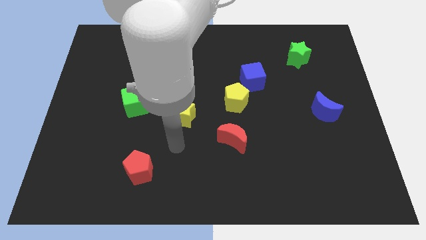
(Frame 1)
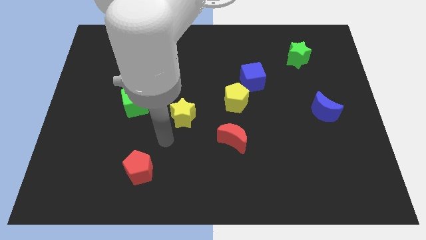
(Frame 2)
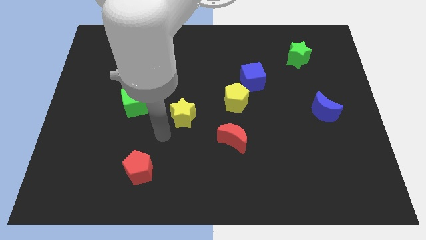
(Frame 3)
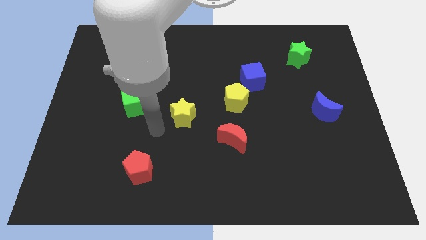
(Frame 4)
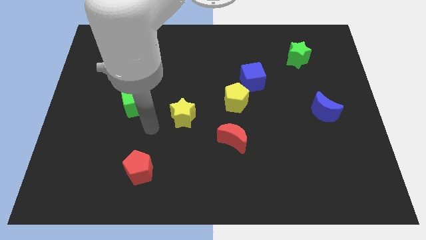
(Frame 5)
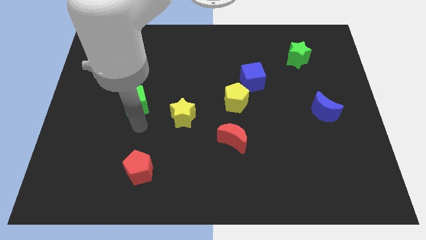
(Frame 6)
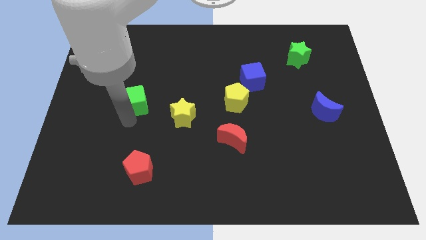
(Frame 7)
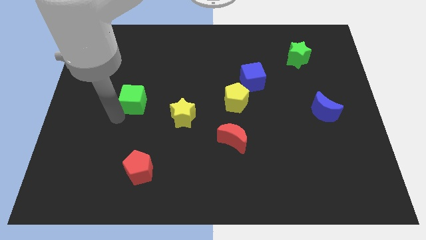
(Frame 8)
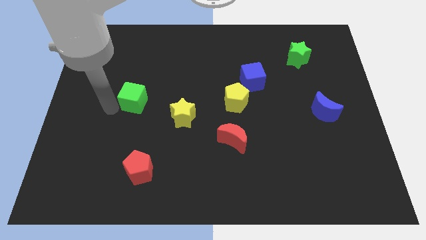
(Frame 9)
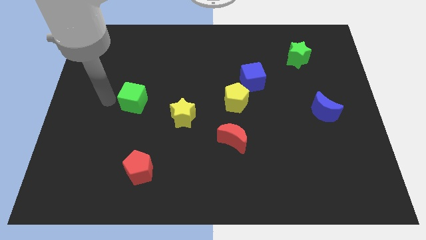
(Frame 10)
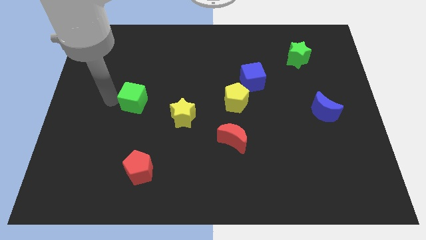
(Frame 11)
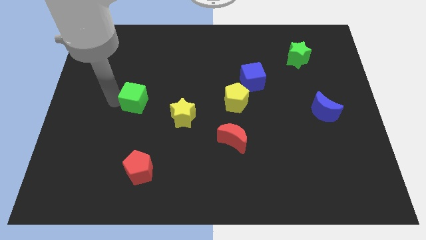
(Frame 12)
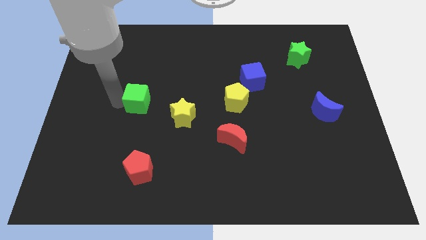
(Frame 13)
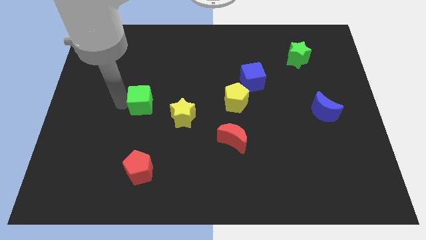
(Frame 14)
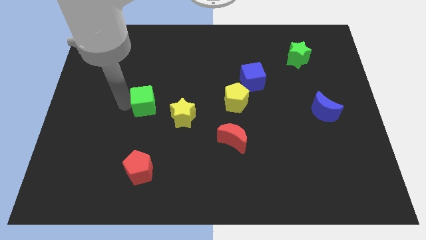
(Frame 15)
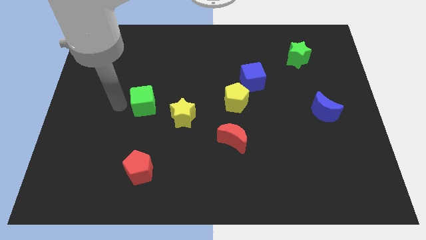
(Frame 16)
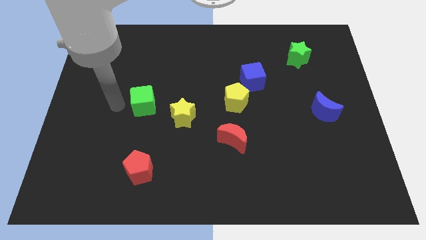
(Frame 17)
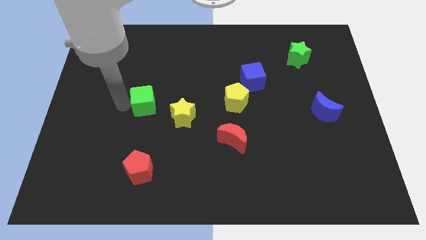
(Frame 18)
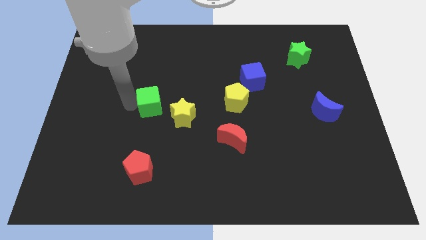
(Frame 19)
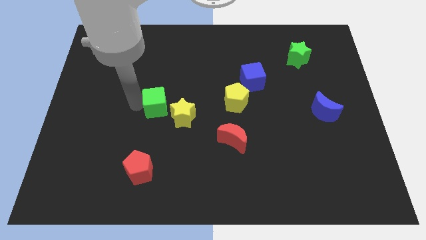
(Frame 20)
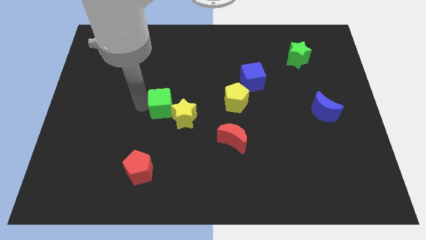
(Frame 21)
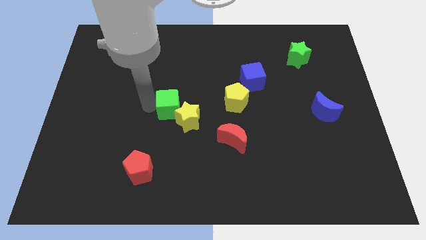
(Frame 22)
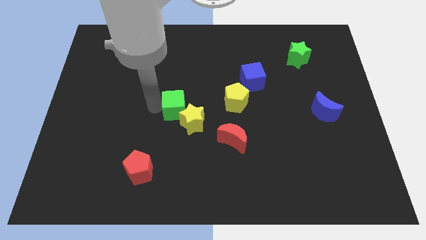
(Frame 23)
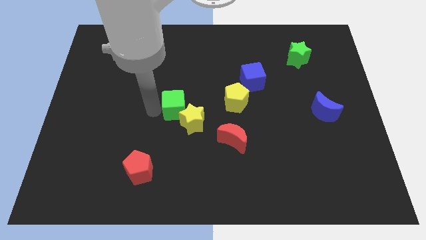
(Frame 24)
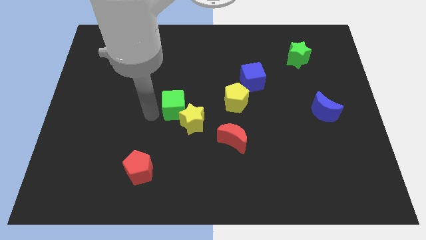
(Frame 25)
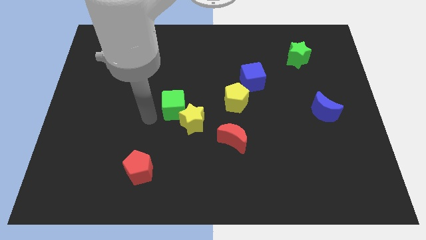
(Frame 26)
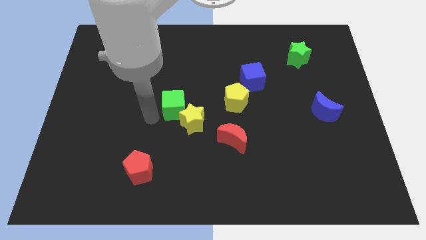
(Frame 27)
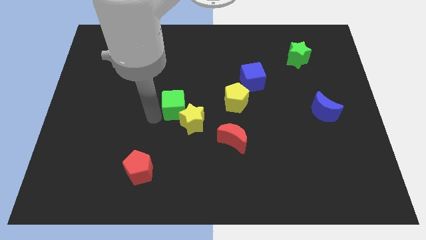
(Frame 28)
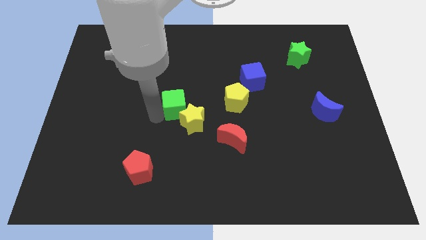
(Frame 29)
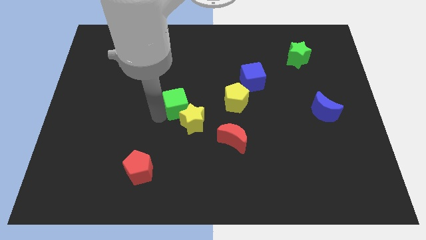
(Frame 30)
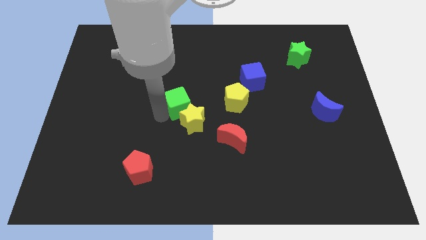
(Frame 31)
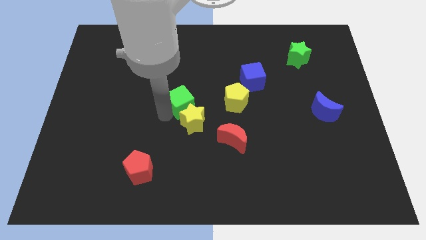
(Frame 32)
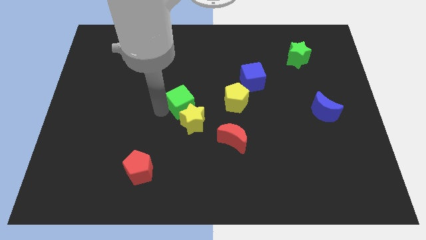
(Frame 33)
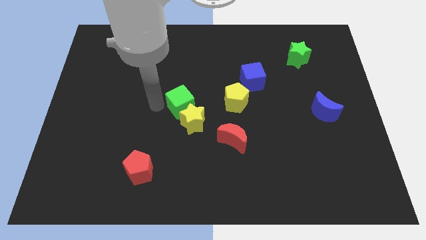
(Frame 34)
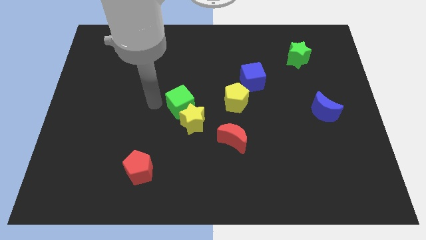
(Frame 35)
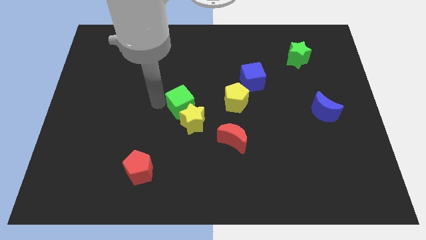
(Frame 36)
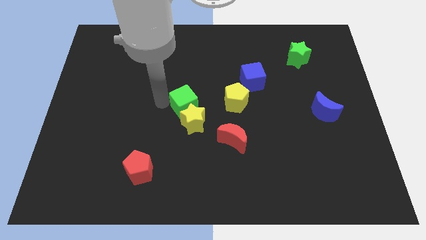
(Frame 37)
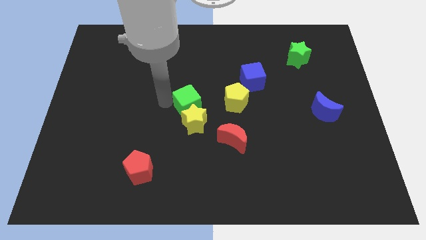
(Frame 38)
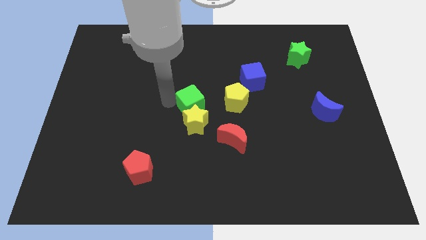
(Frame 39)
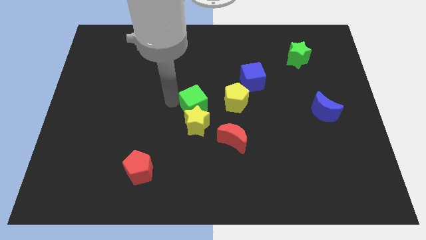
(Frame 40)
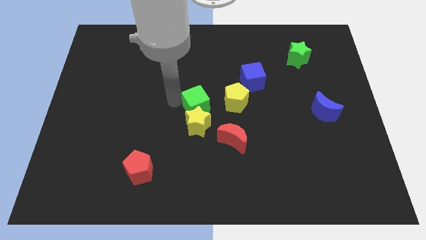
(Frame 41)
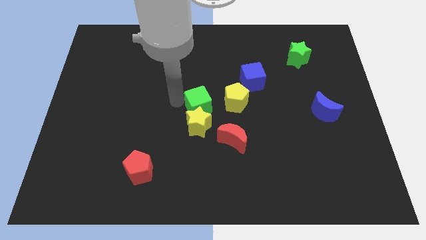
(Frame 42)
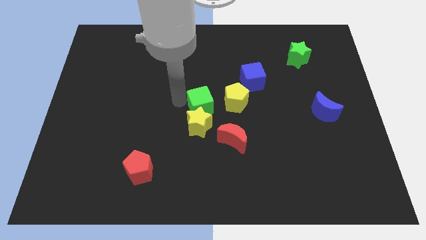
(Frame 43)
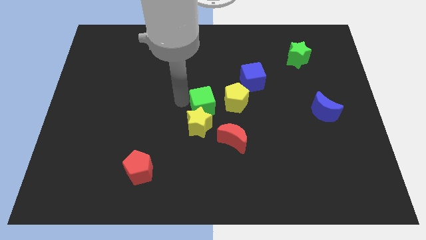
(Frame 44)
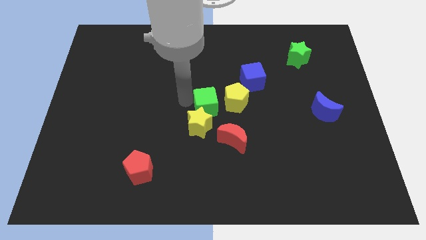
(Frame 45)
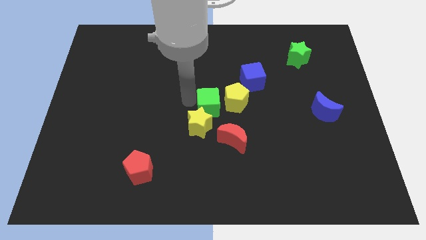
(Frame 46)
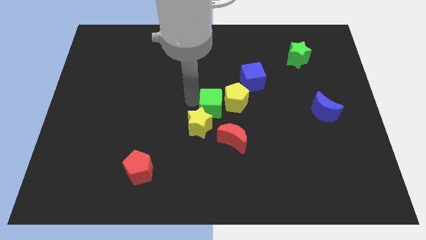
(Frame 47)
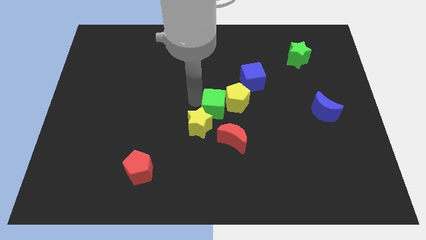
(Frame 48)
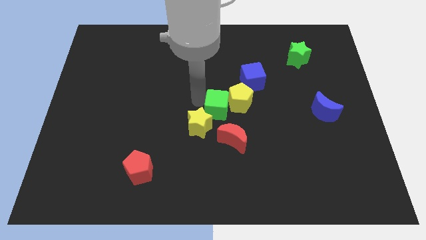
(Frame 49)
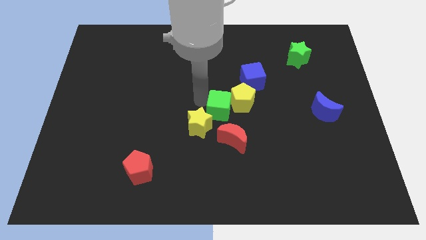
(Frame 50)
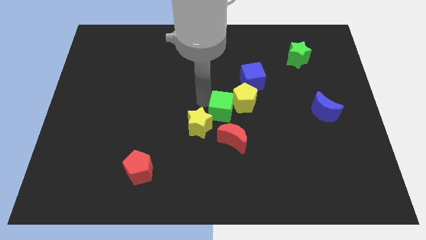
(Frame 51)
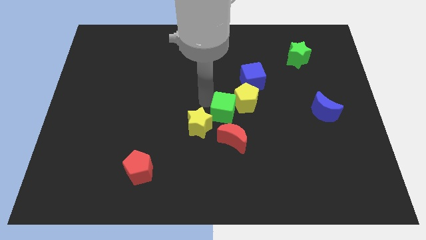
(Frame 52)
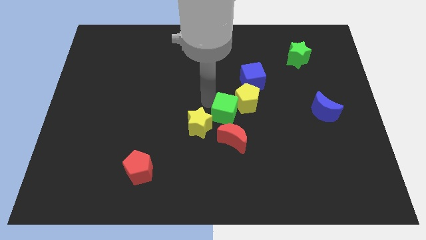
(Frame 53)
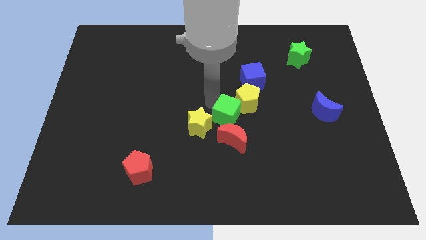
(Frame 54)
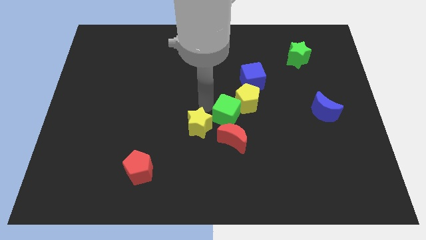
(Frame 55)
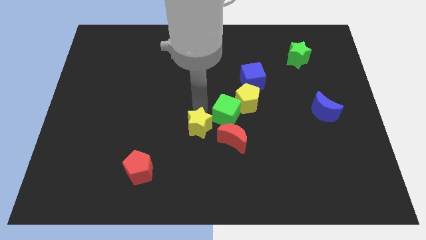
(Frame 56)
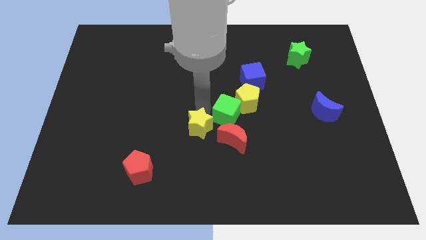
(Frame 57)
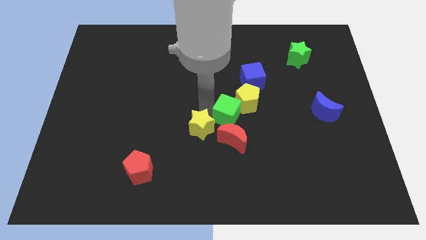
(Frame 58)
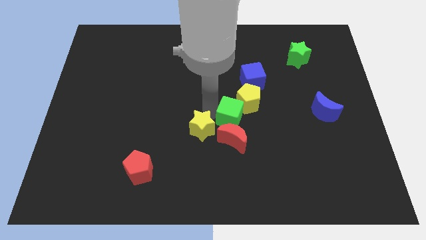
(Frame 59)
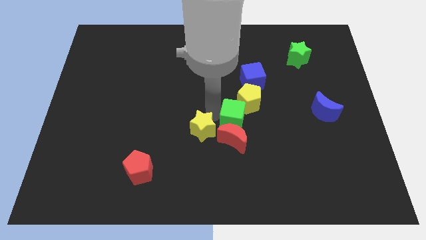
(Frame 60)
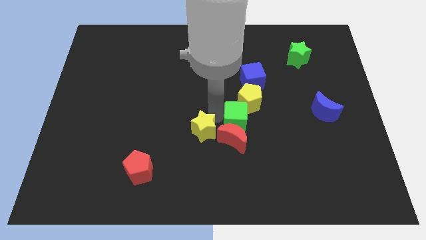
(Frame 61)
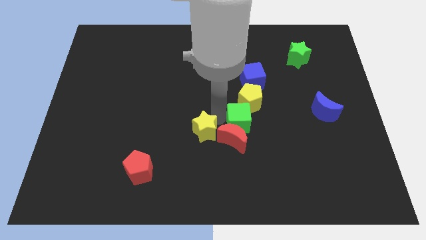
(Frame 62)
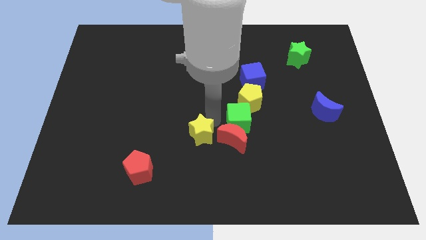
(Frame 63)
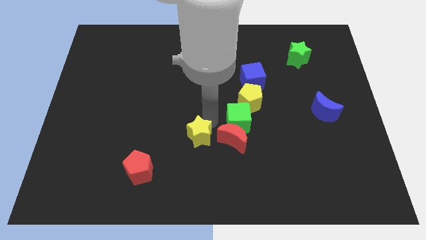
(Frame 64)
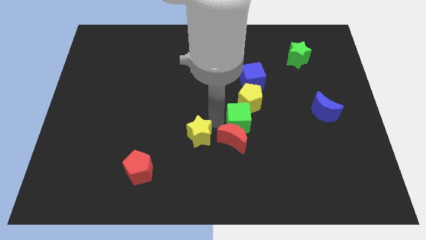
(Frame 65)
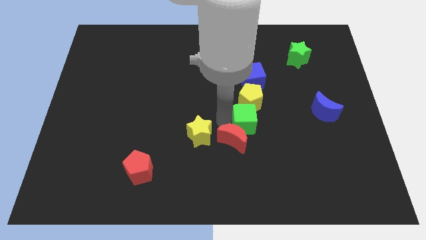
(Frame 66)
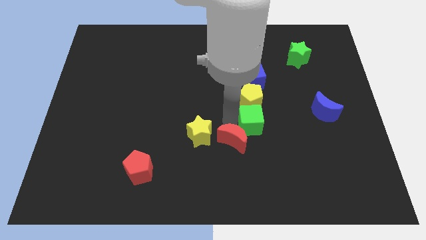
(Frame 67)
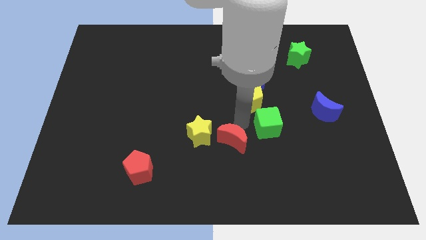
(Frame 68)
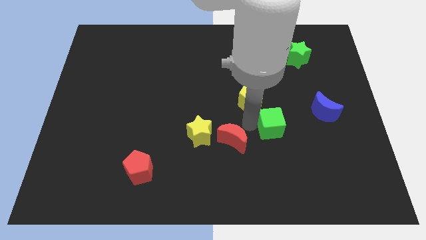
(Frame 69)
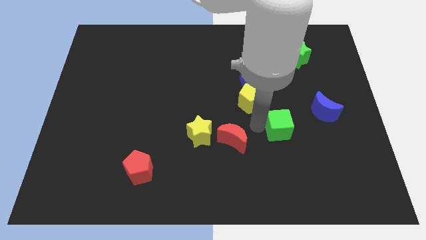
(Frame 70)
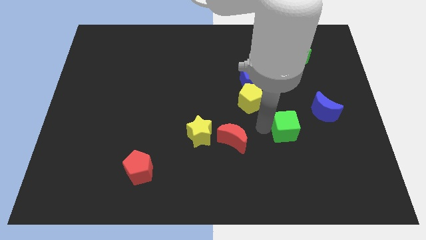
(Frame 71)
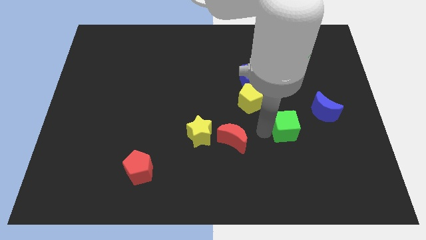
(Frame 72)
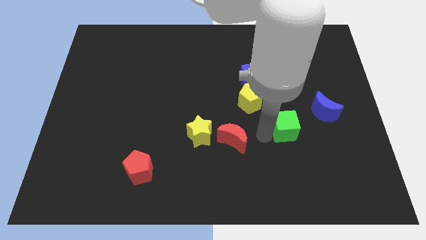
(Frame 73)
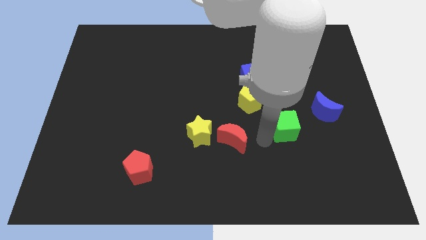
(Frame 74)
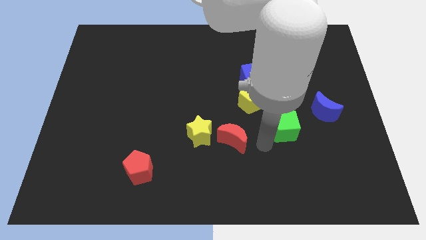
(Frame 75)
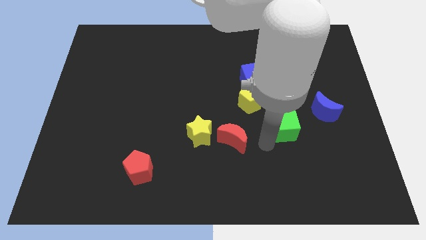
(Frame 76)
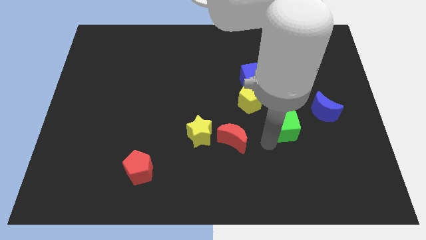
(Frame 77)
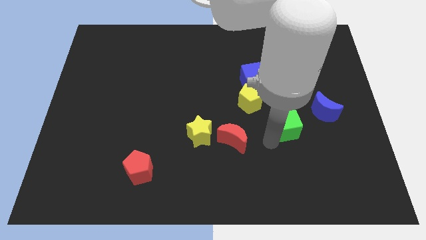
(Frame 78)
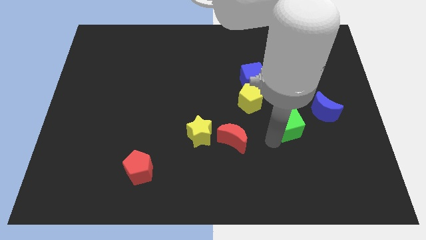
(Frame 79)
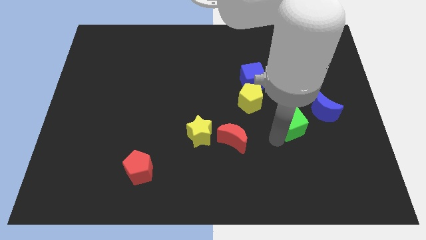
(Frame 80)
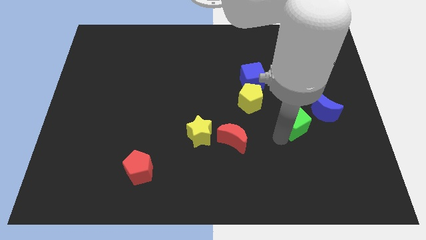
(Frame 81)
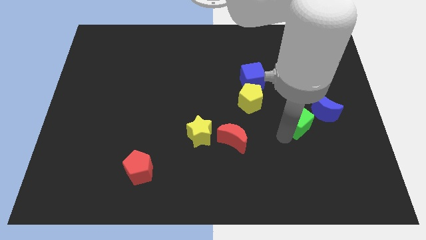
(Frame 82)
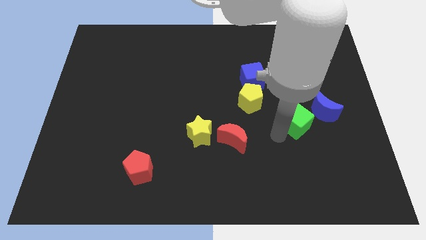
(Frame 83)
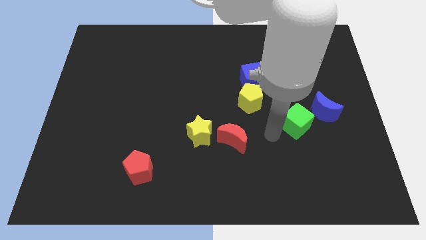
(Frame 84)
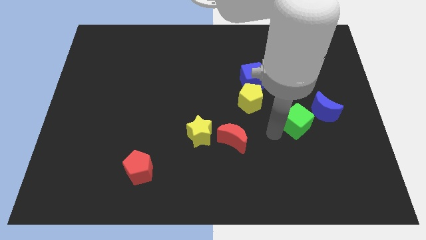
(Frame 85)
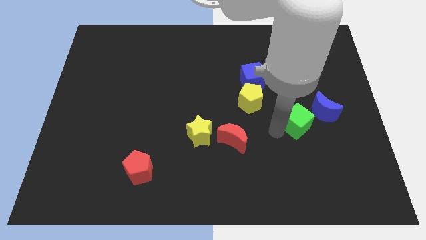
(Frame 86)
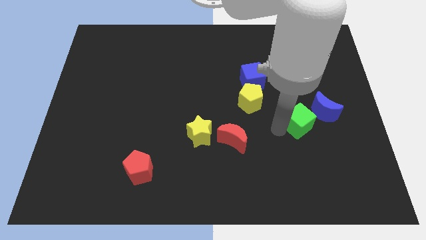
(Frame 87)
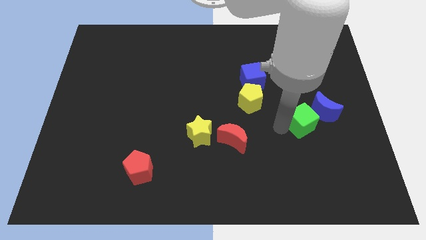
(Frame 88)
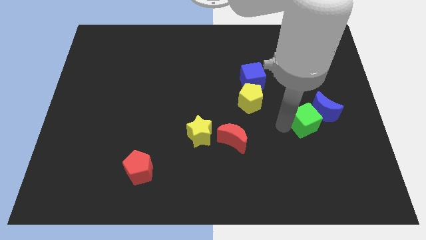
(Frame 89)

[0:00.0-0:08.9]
move the green cube towards the blue moon
